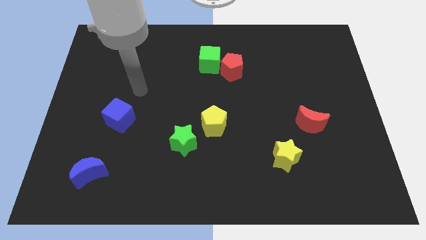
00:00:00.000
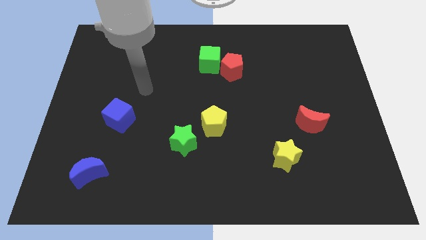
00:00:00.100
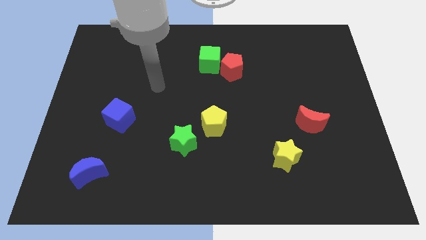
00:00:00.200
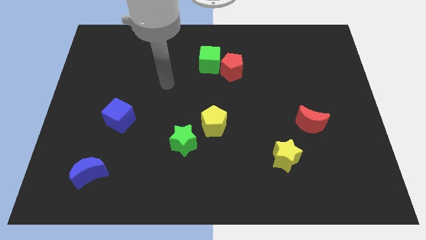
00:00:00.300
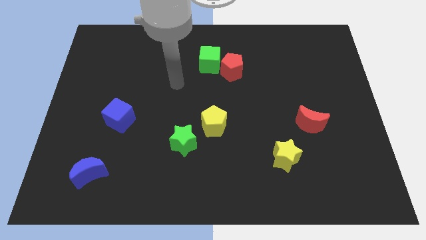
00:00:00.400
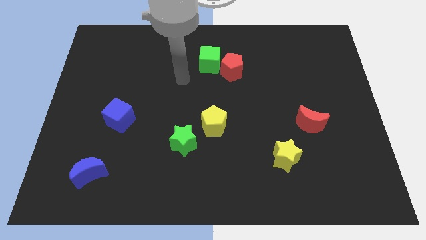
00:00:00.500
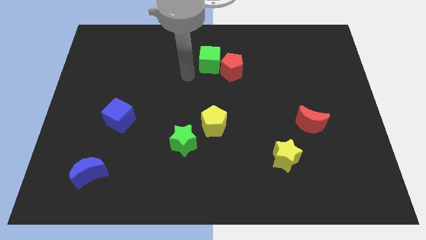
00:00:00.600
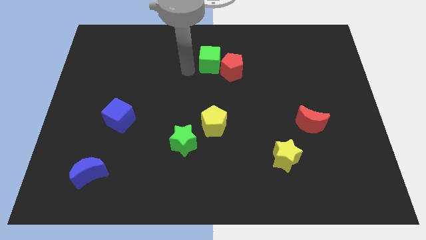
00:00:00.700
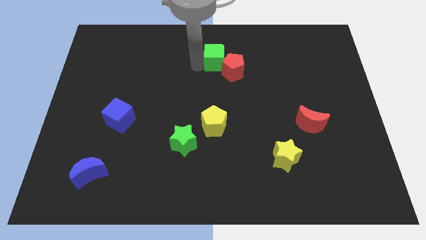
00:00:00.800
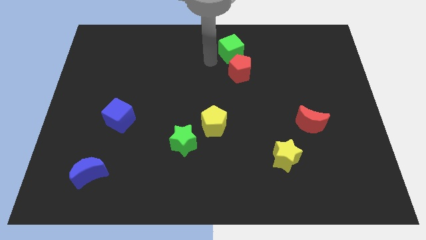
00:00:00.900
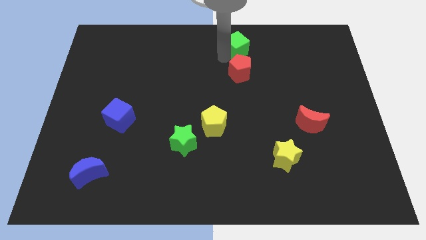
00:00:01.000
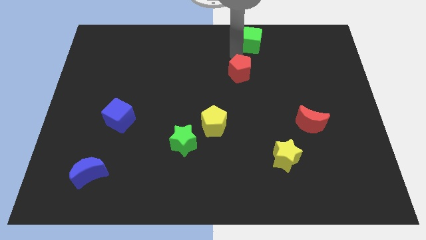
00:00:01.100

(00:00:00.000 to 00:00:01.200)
pull the red pentagon apart from the green cube

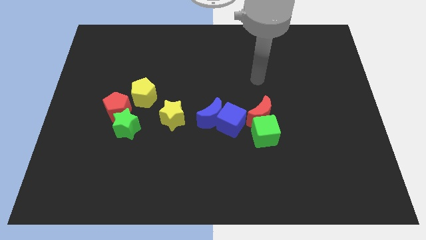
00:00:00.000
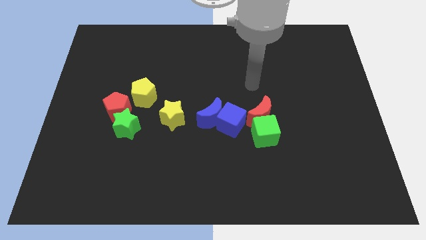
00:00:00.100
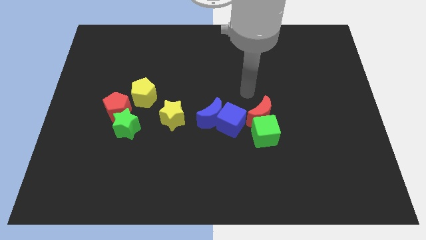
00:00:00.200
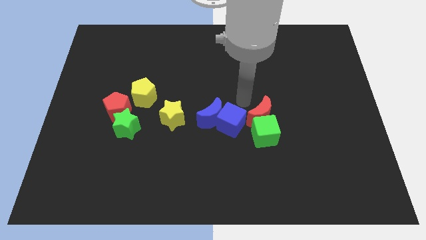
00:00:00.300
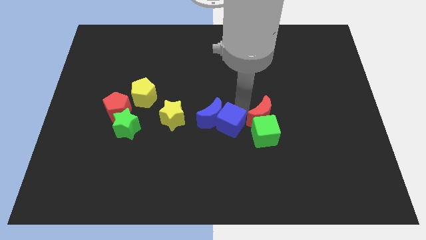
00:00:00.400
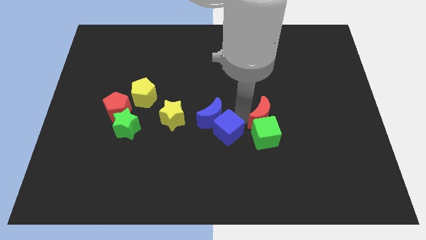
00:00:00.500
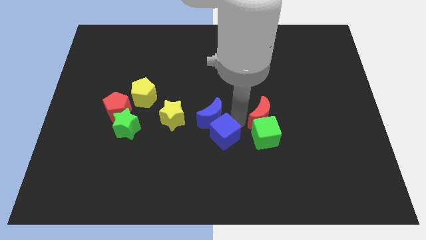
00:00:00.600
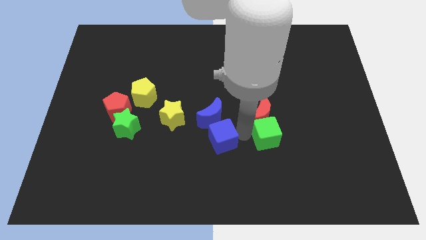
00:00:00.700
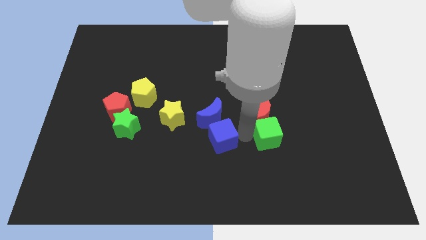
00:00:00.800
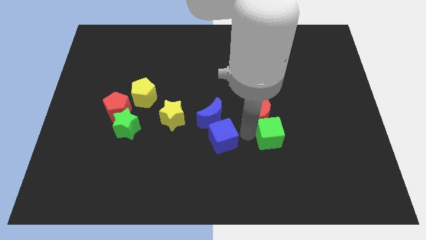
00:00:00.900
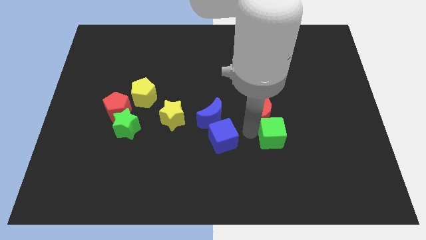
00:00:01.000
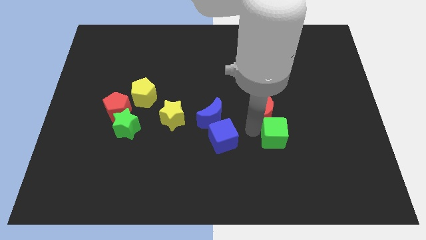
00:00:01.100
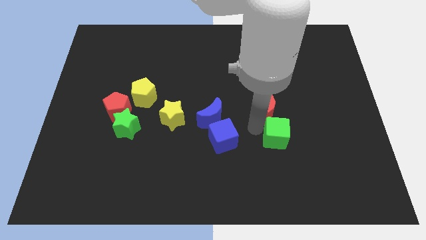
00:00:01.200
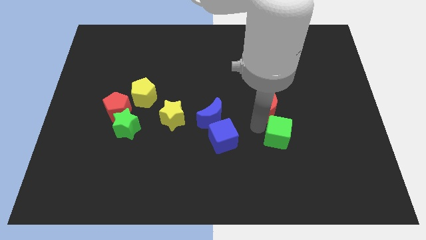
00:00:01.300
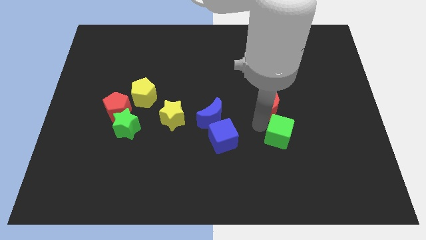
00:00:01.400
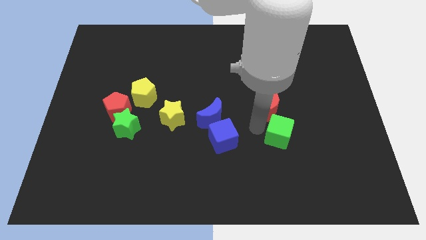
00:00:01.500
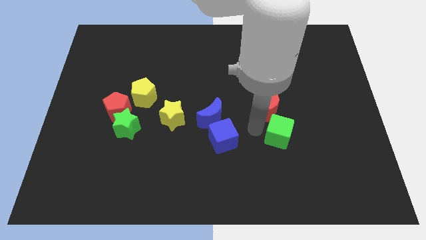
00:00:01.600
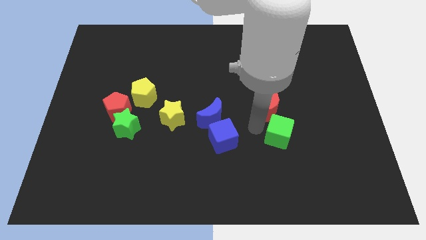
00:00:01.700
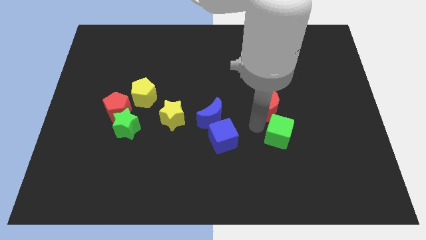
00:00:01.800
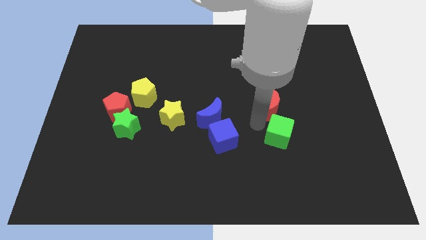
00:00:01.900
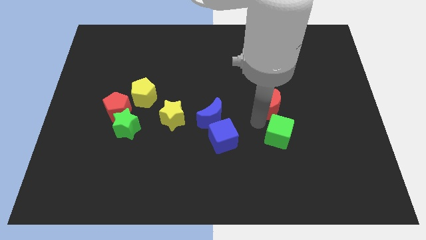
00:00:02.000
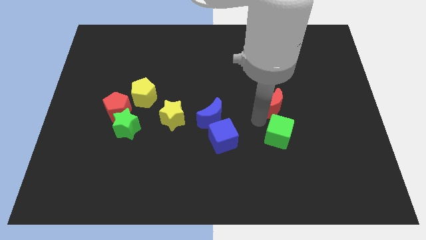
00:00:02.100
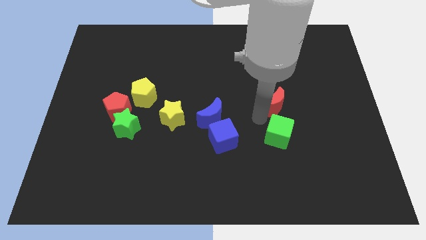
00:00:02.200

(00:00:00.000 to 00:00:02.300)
separate the red moon from the green cube and blue cube

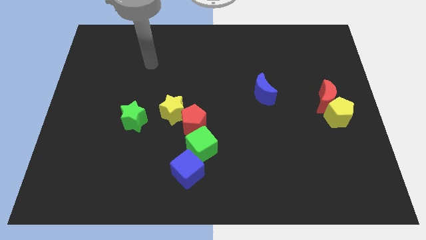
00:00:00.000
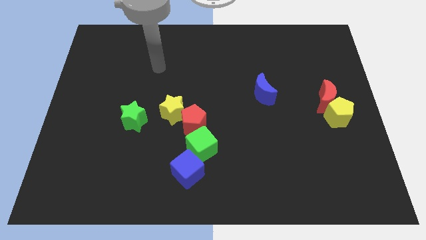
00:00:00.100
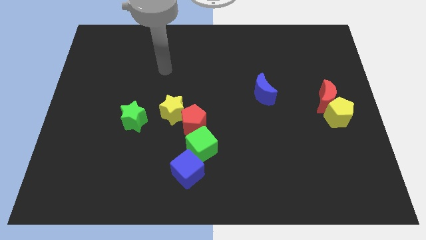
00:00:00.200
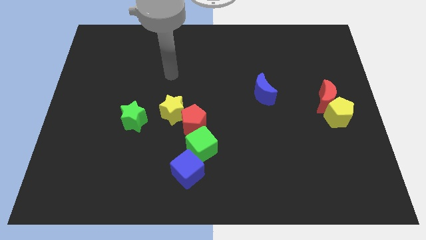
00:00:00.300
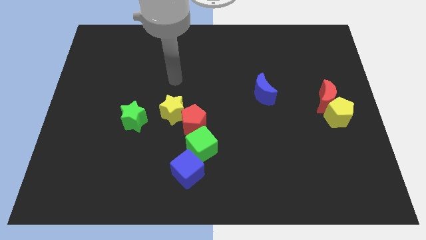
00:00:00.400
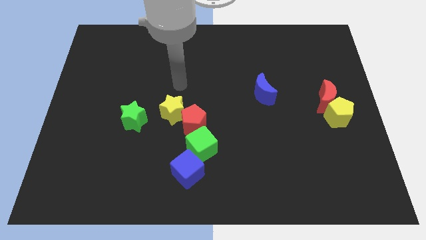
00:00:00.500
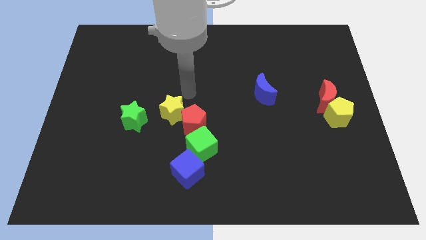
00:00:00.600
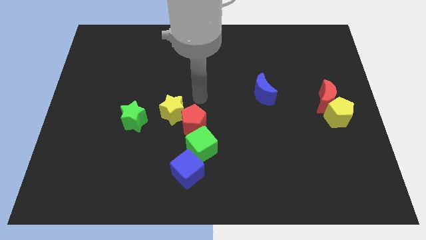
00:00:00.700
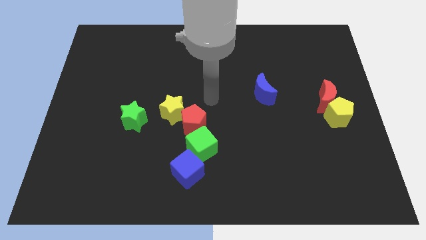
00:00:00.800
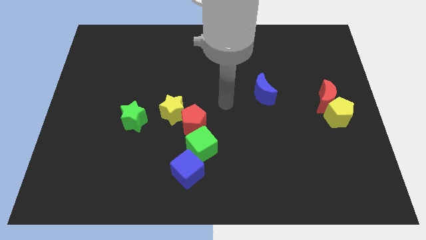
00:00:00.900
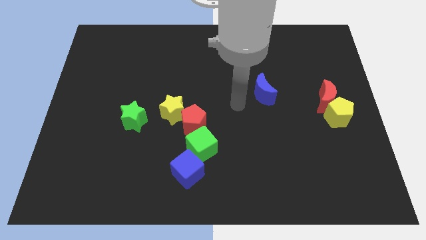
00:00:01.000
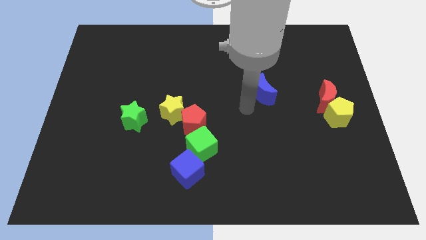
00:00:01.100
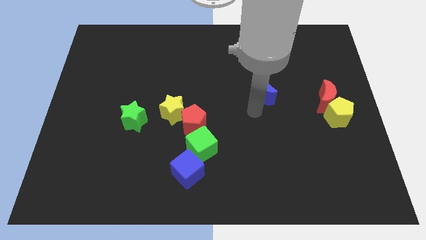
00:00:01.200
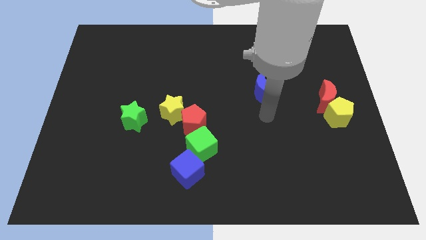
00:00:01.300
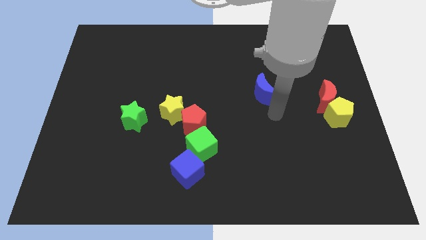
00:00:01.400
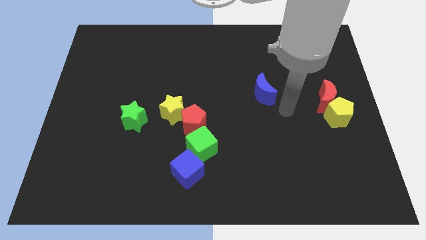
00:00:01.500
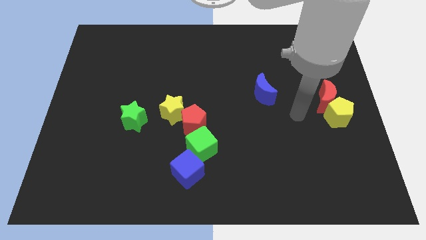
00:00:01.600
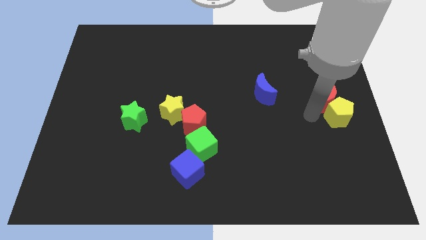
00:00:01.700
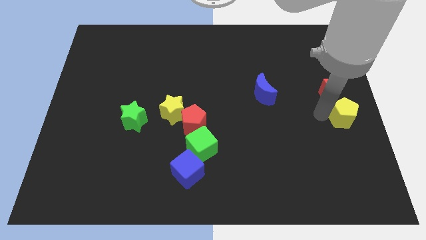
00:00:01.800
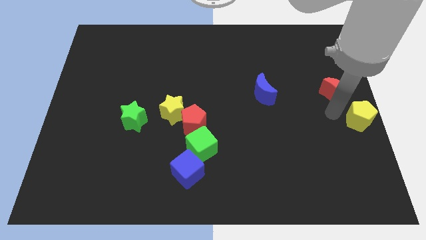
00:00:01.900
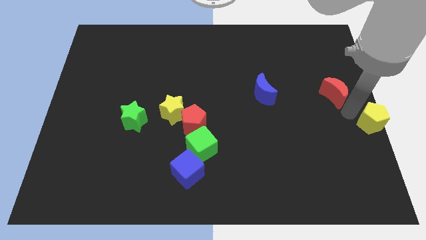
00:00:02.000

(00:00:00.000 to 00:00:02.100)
move the red moon away from the yellow pentagon

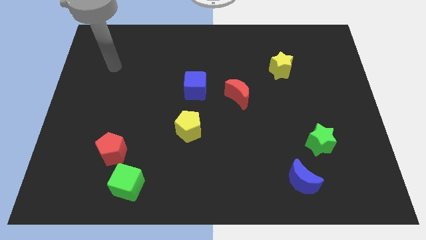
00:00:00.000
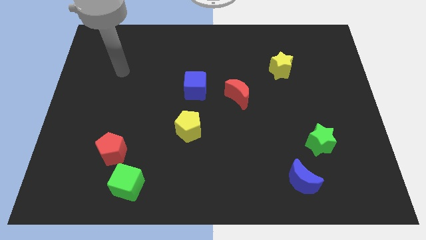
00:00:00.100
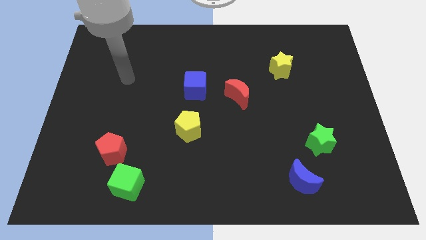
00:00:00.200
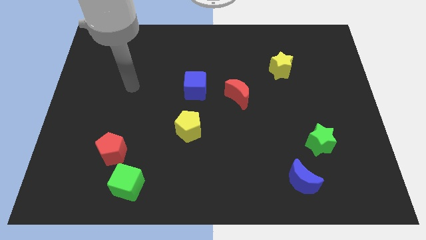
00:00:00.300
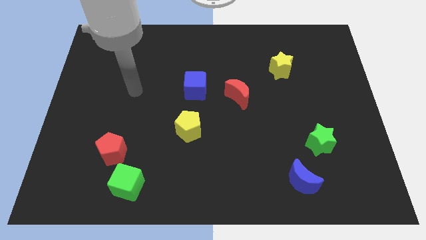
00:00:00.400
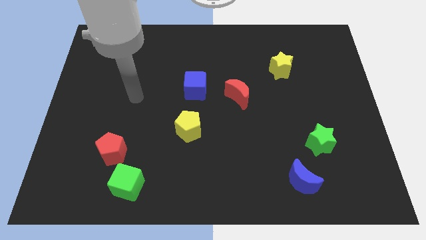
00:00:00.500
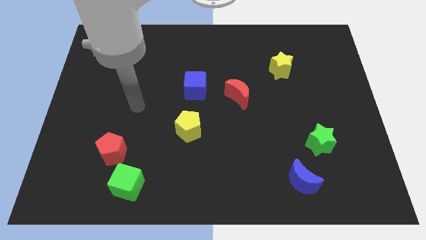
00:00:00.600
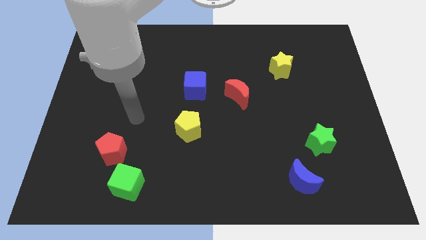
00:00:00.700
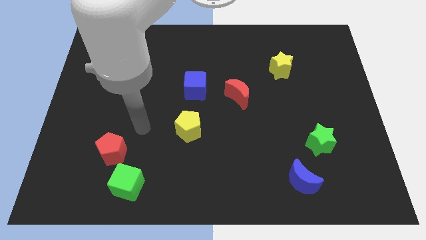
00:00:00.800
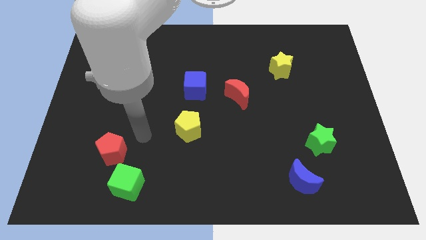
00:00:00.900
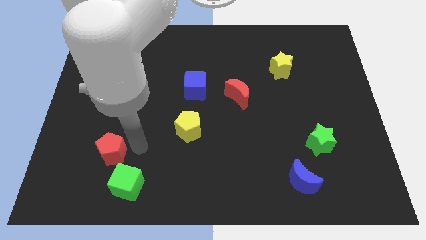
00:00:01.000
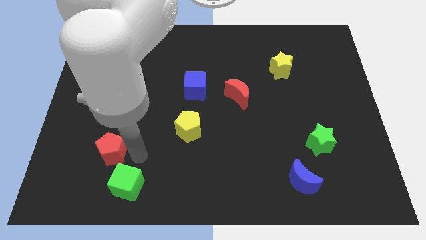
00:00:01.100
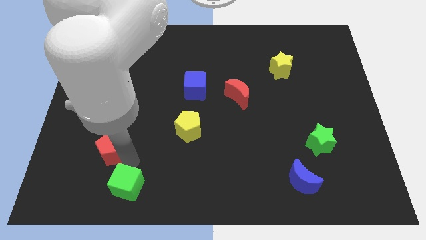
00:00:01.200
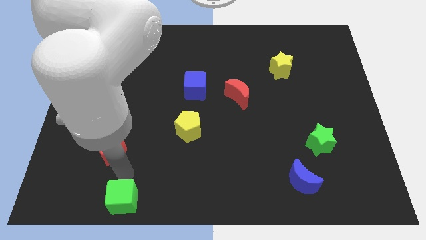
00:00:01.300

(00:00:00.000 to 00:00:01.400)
move the red pentagon away from the green cube

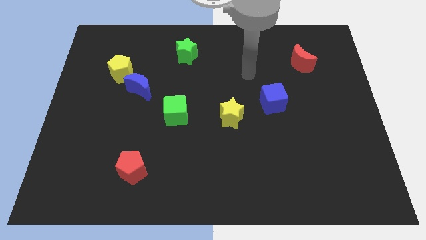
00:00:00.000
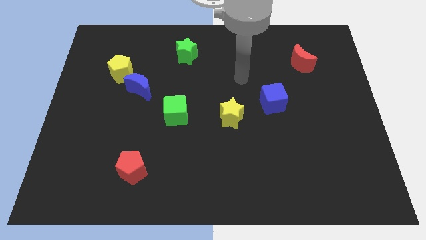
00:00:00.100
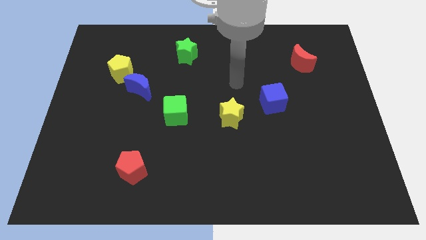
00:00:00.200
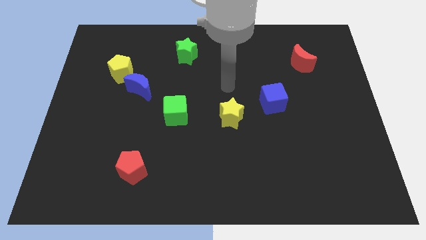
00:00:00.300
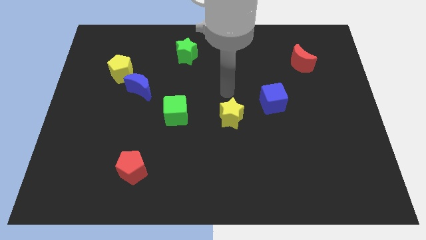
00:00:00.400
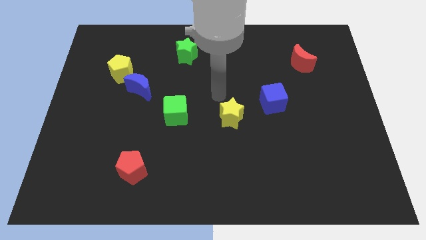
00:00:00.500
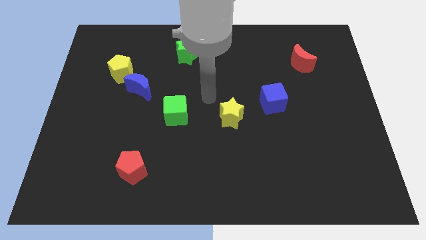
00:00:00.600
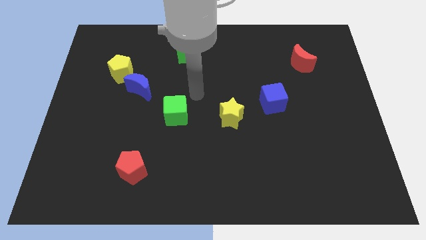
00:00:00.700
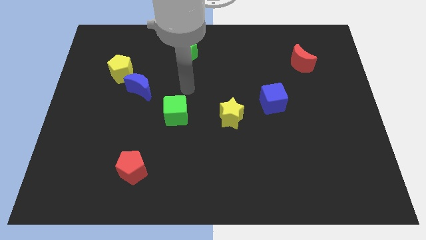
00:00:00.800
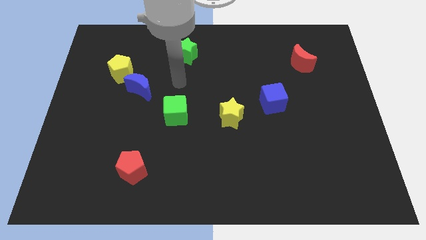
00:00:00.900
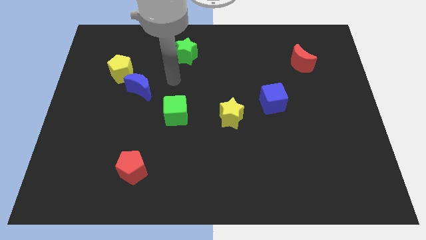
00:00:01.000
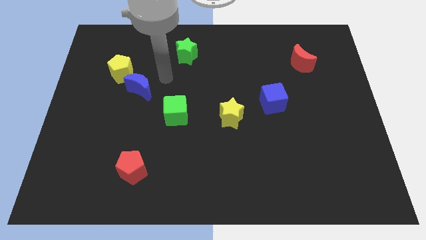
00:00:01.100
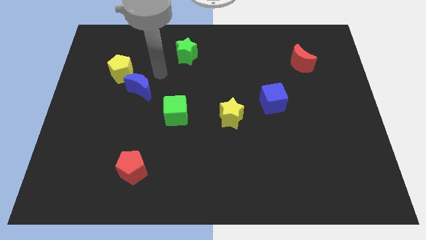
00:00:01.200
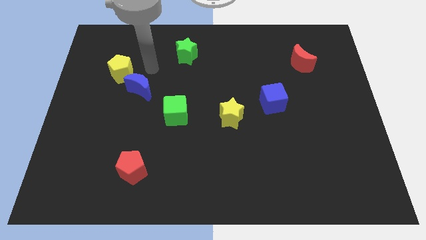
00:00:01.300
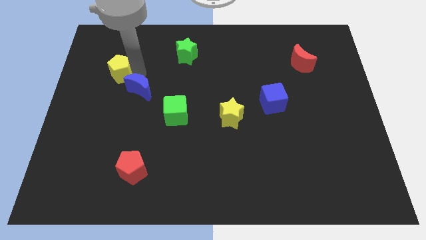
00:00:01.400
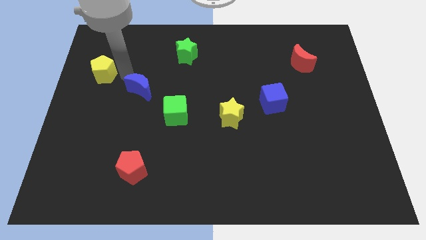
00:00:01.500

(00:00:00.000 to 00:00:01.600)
separate the blue moon from the yellow pentagon

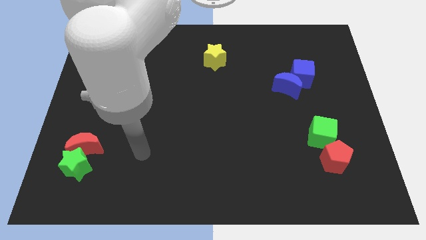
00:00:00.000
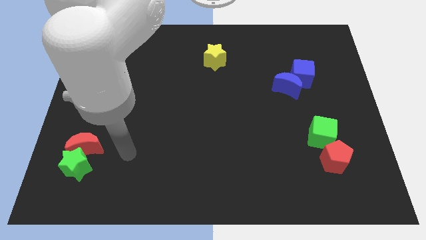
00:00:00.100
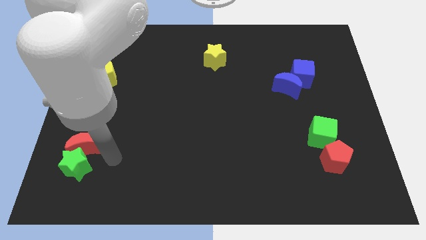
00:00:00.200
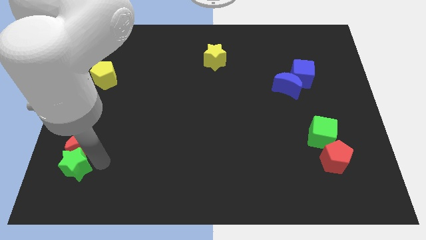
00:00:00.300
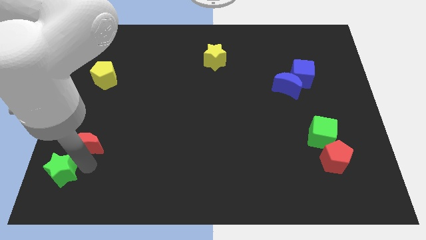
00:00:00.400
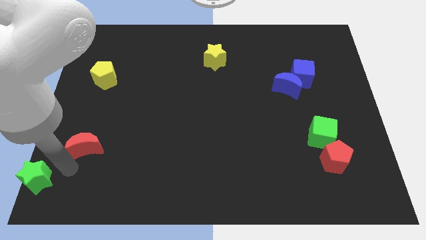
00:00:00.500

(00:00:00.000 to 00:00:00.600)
separate the red moon from the green star
